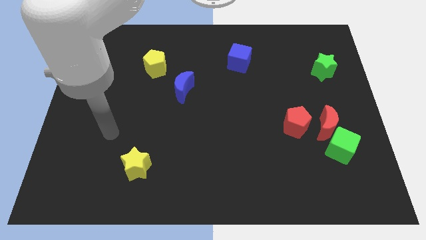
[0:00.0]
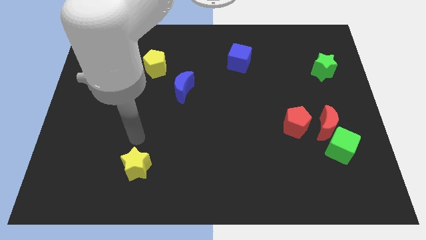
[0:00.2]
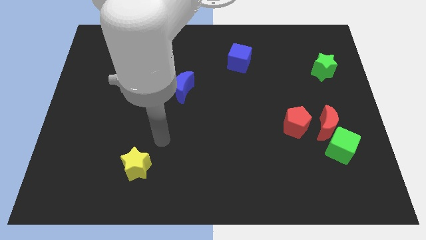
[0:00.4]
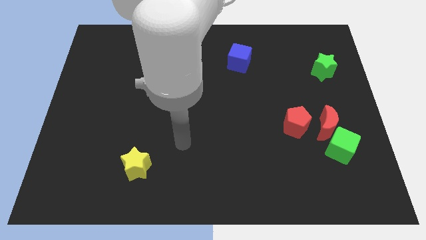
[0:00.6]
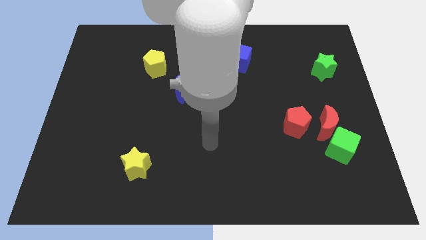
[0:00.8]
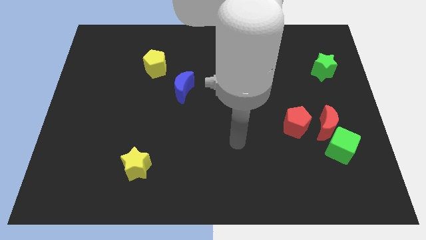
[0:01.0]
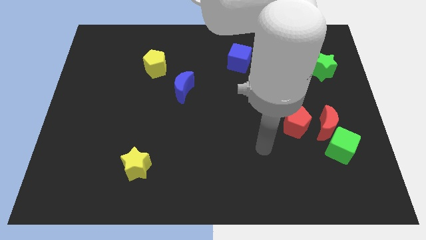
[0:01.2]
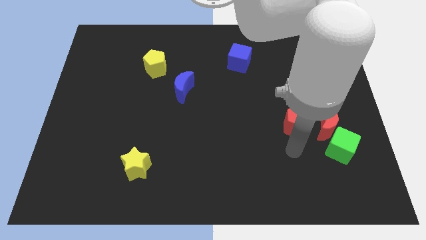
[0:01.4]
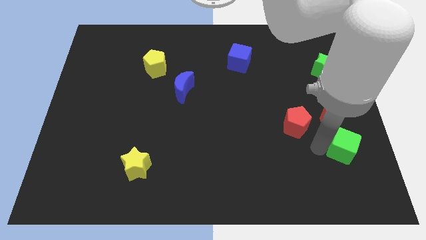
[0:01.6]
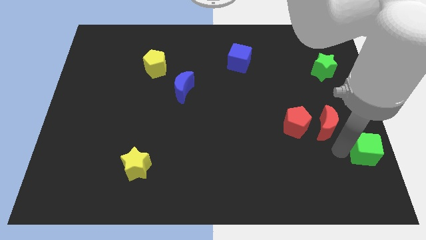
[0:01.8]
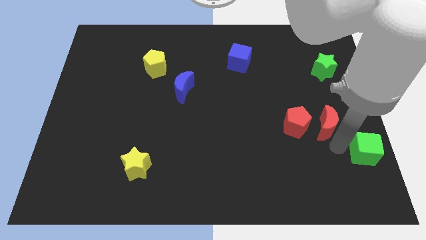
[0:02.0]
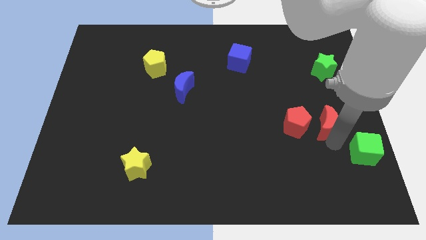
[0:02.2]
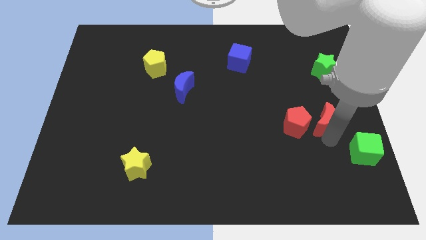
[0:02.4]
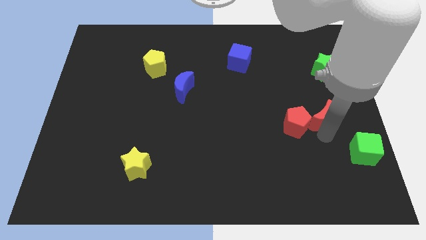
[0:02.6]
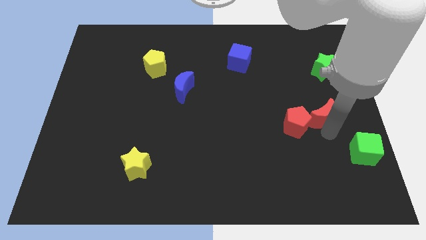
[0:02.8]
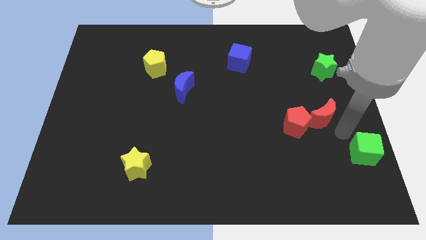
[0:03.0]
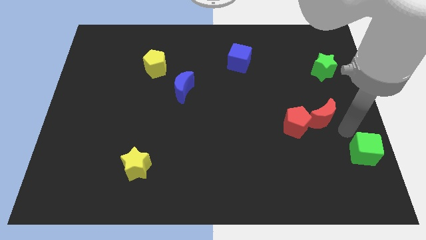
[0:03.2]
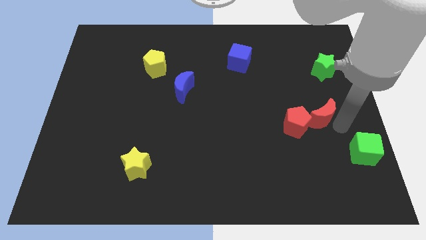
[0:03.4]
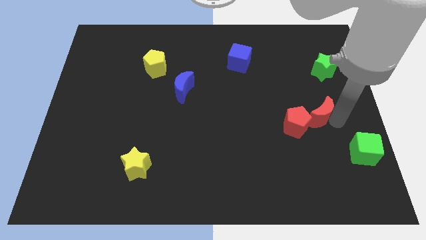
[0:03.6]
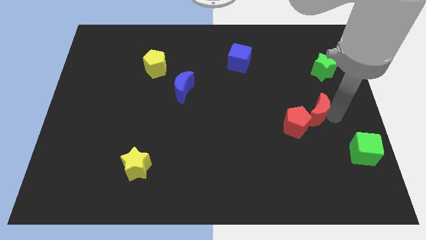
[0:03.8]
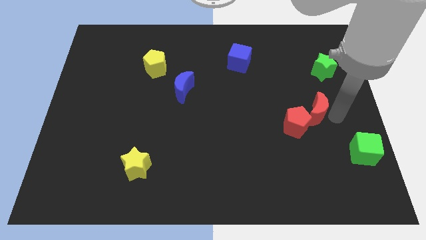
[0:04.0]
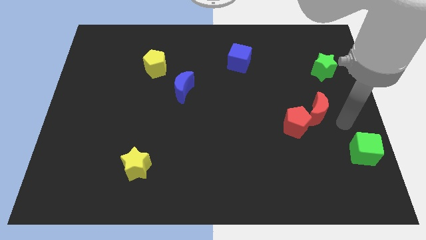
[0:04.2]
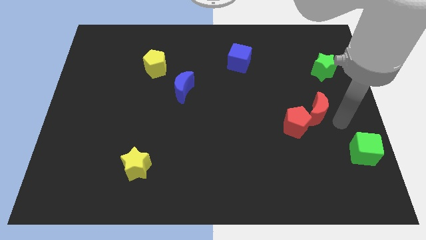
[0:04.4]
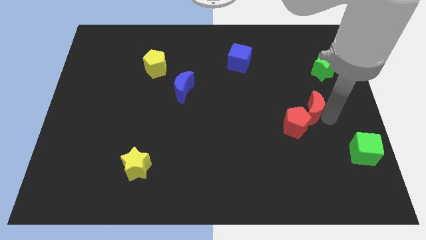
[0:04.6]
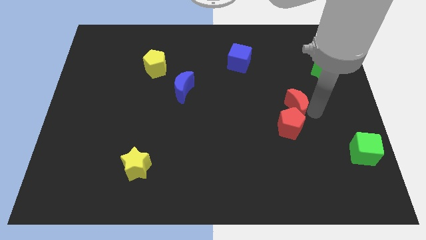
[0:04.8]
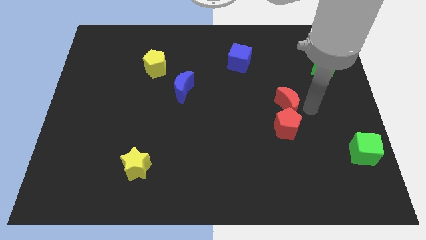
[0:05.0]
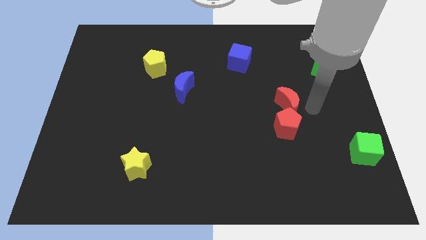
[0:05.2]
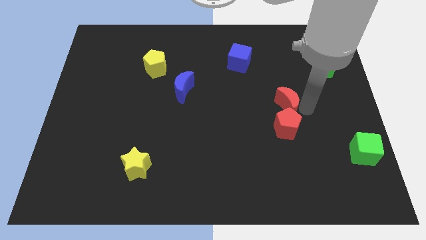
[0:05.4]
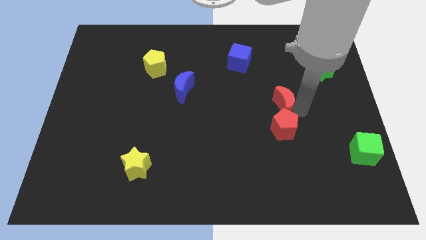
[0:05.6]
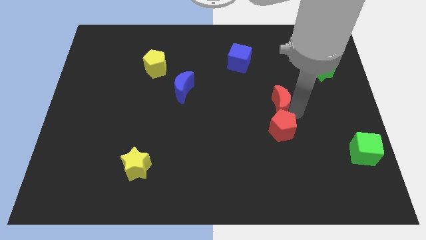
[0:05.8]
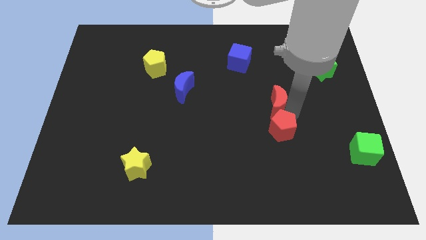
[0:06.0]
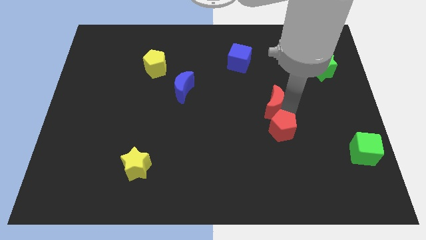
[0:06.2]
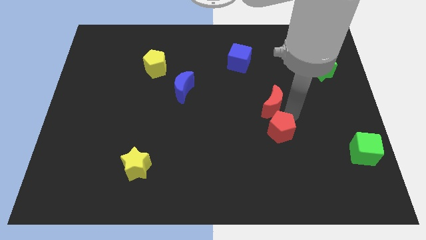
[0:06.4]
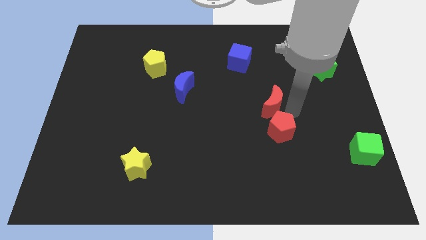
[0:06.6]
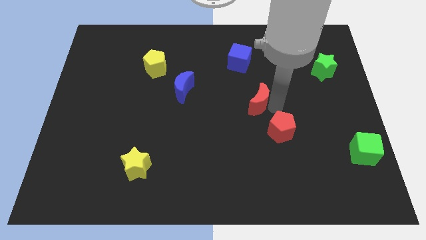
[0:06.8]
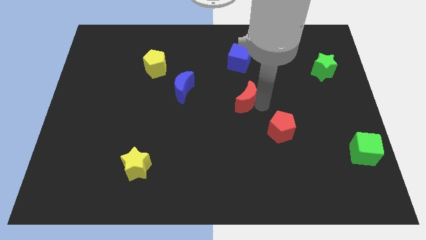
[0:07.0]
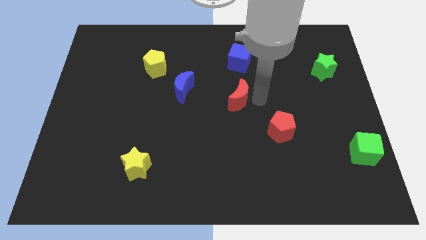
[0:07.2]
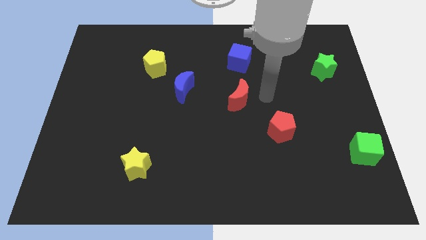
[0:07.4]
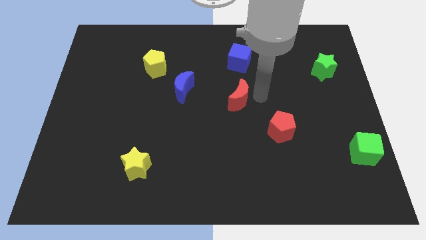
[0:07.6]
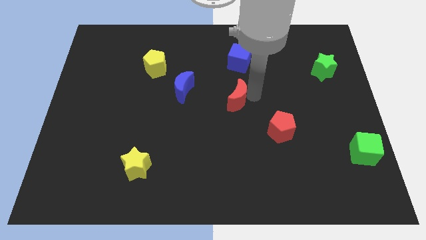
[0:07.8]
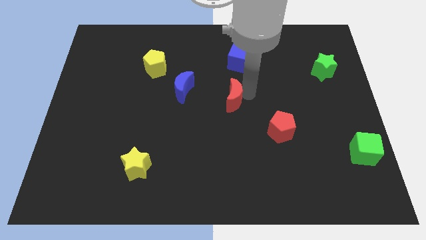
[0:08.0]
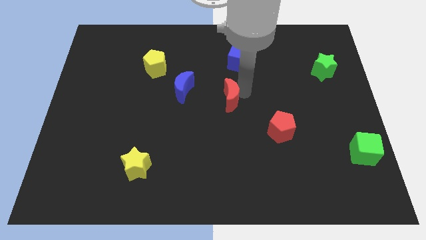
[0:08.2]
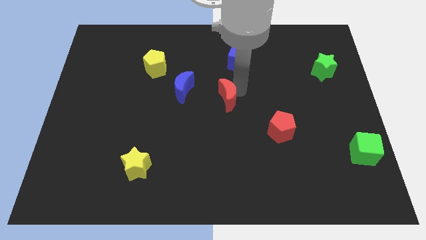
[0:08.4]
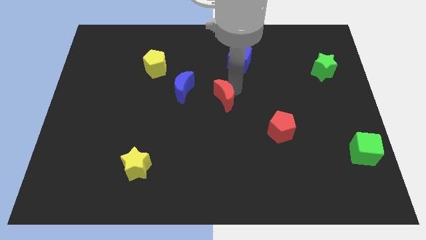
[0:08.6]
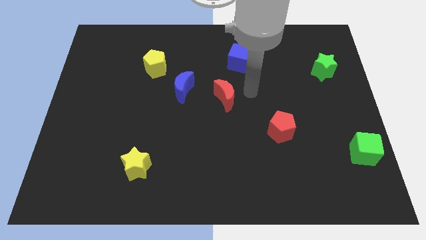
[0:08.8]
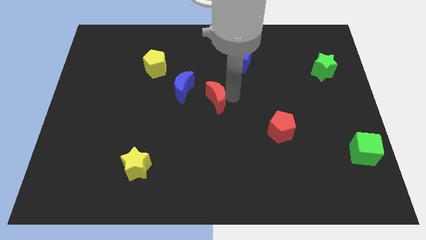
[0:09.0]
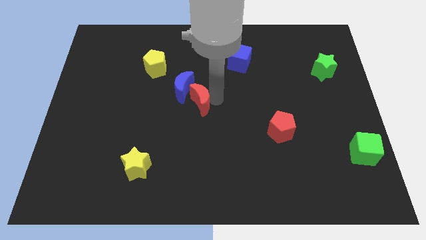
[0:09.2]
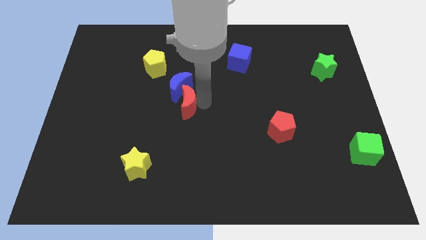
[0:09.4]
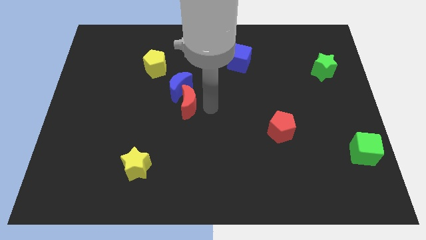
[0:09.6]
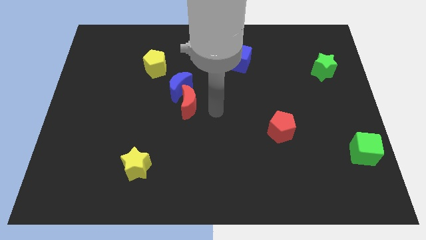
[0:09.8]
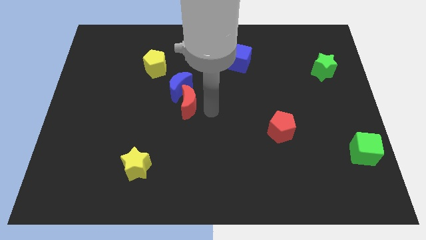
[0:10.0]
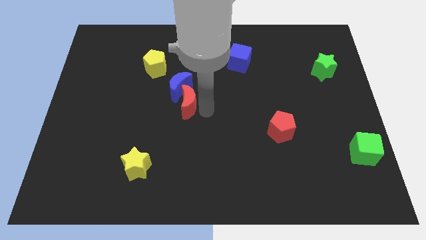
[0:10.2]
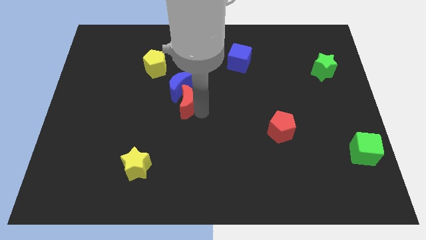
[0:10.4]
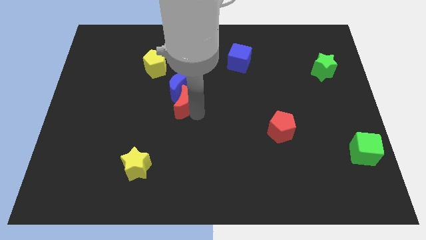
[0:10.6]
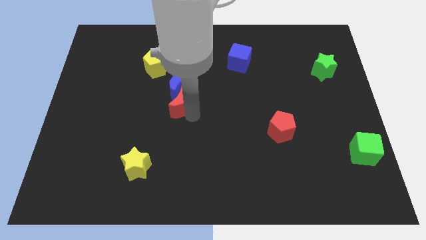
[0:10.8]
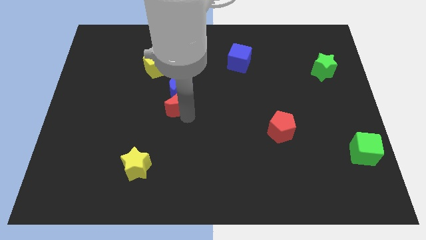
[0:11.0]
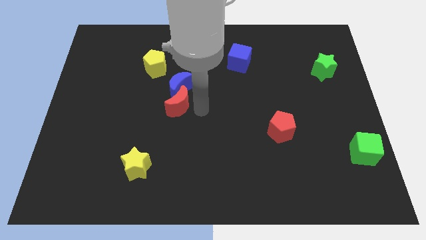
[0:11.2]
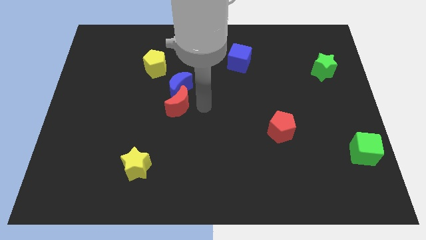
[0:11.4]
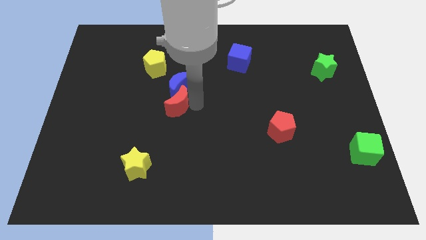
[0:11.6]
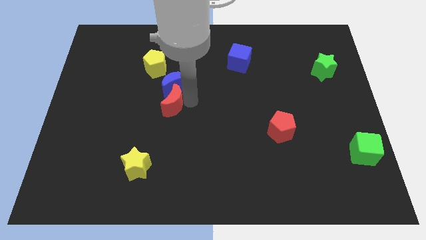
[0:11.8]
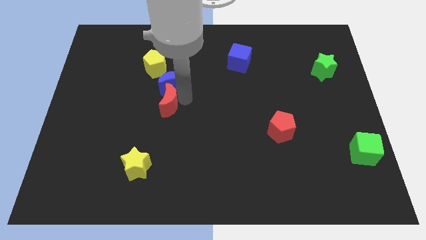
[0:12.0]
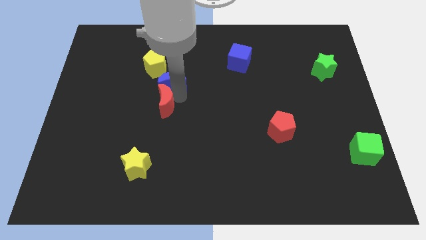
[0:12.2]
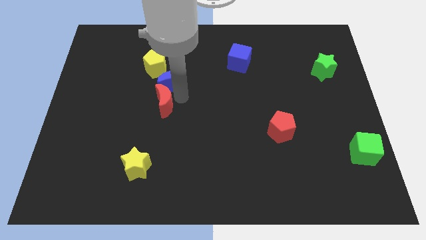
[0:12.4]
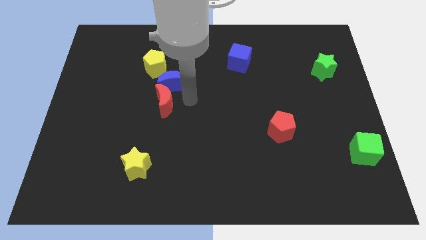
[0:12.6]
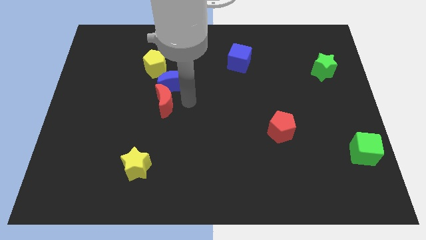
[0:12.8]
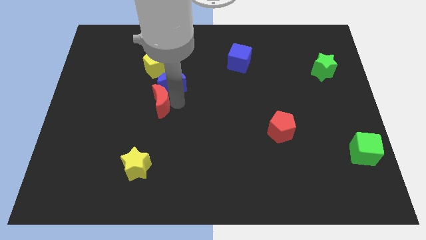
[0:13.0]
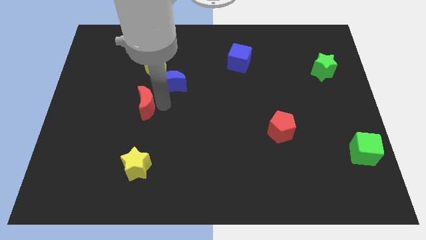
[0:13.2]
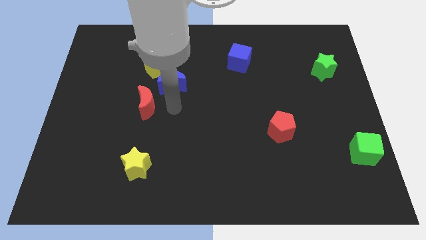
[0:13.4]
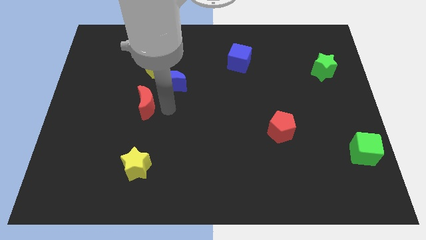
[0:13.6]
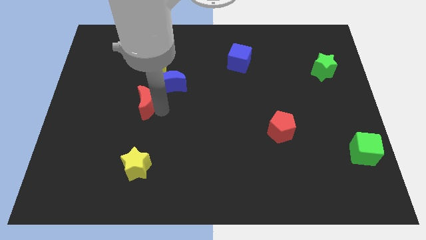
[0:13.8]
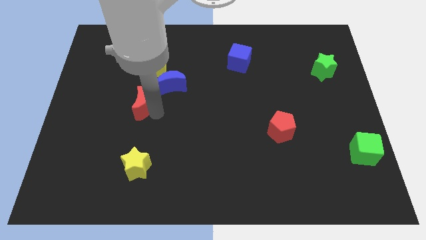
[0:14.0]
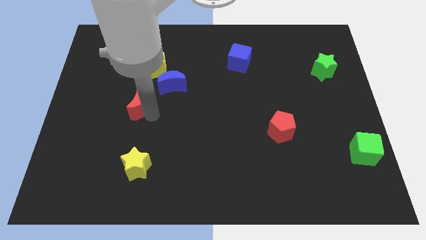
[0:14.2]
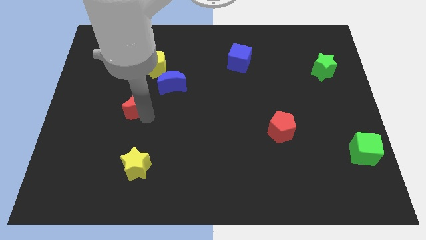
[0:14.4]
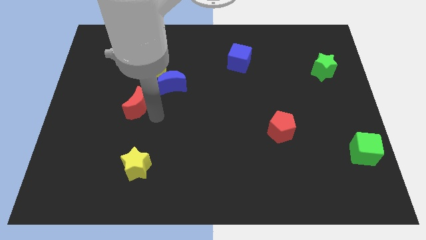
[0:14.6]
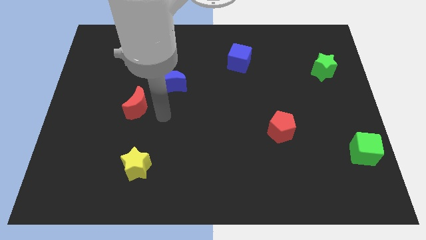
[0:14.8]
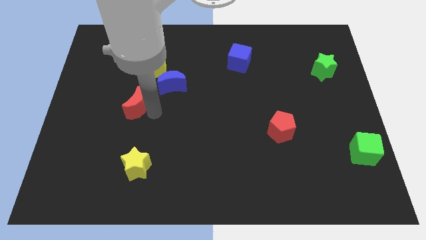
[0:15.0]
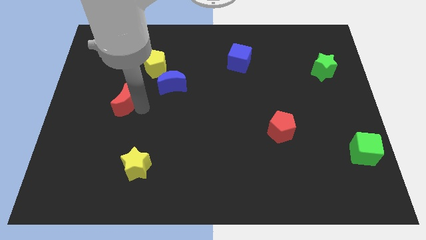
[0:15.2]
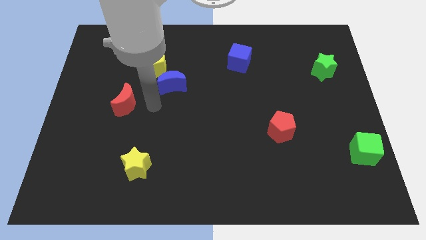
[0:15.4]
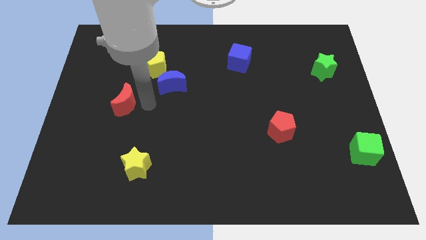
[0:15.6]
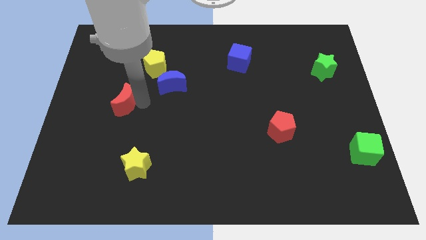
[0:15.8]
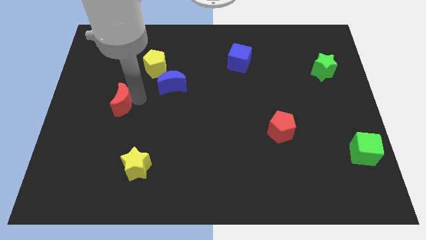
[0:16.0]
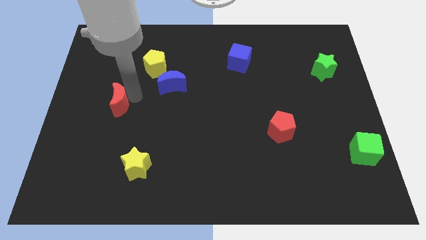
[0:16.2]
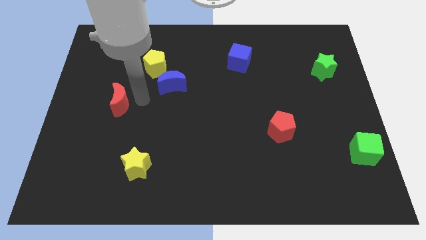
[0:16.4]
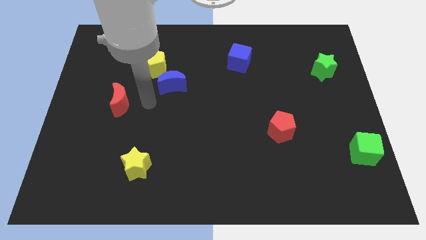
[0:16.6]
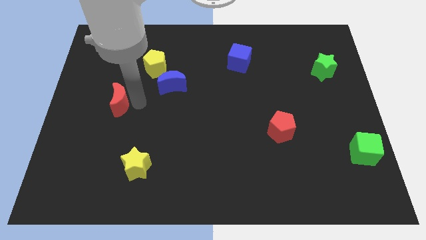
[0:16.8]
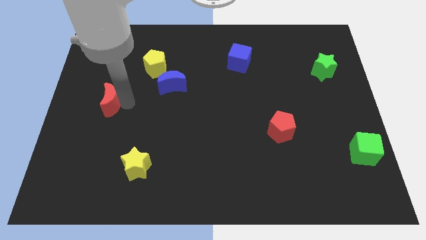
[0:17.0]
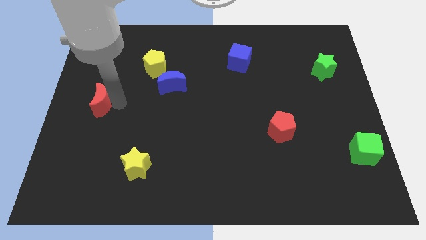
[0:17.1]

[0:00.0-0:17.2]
push the red moon to the center left
